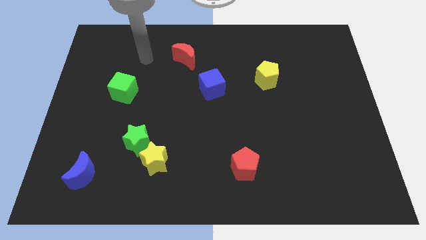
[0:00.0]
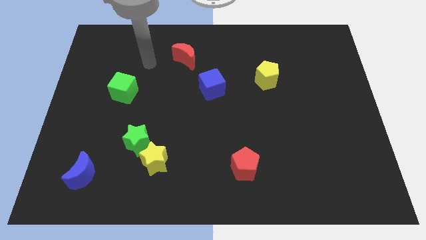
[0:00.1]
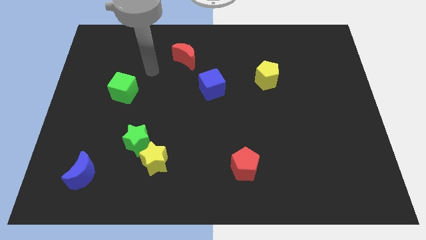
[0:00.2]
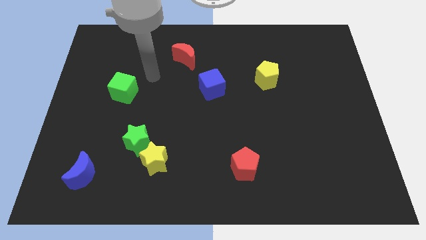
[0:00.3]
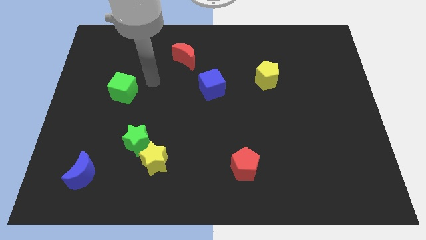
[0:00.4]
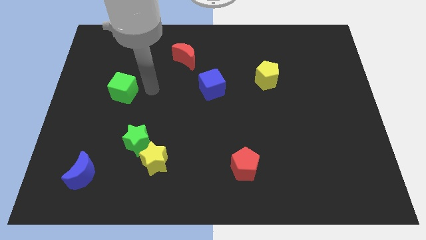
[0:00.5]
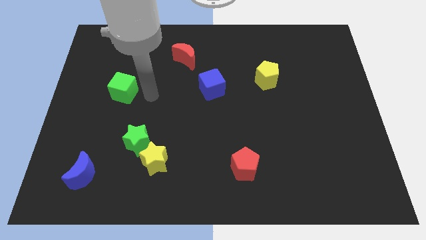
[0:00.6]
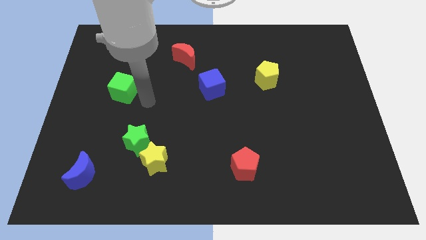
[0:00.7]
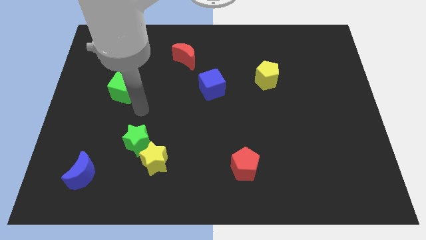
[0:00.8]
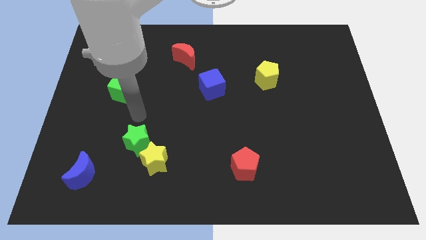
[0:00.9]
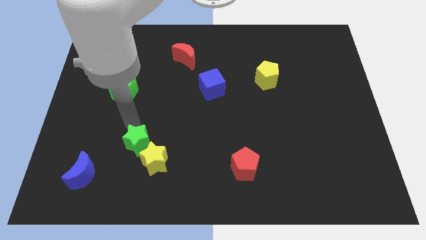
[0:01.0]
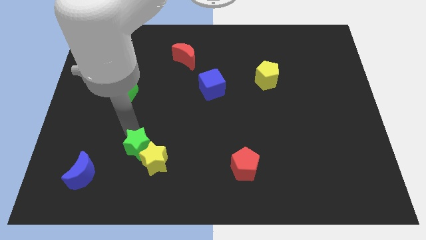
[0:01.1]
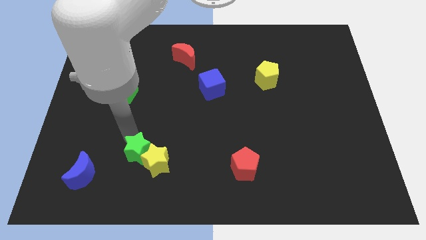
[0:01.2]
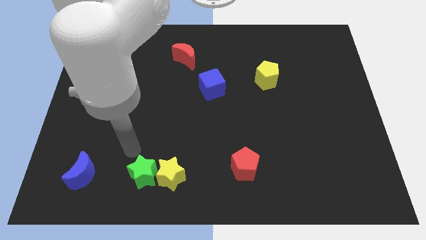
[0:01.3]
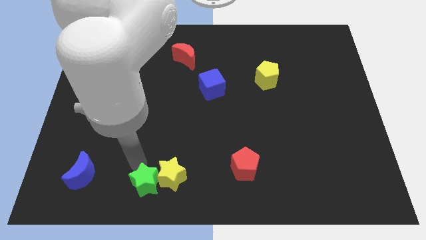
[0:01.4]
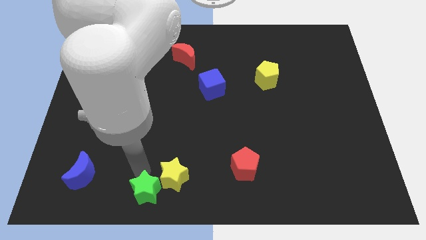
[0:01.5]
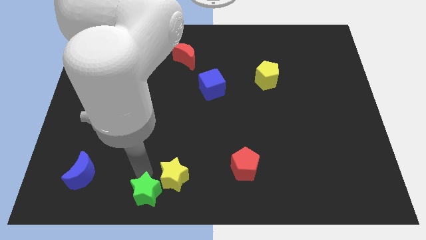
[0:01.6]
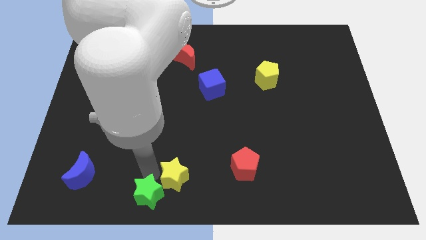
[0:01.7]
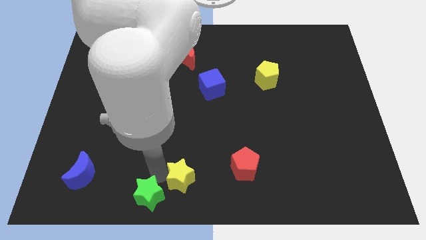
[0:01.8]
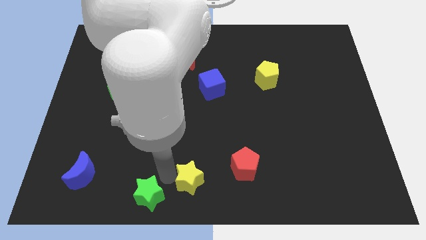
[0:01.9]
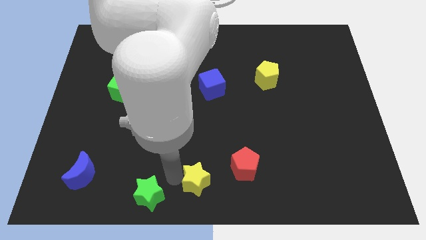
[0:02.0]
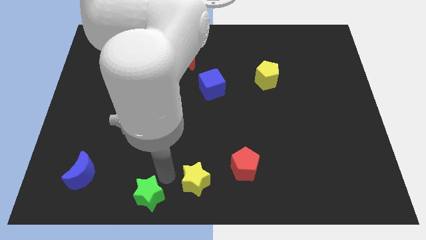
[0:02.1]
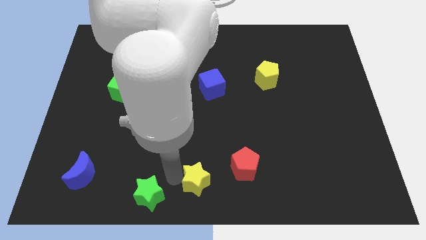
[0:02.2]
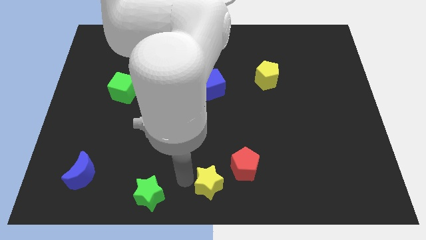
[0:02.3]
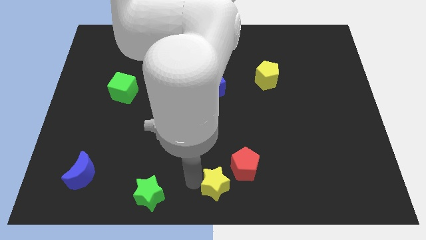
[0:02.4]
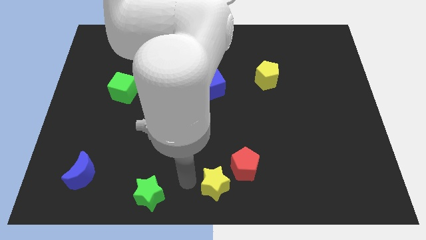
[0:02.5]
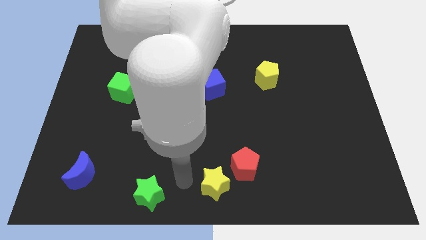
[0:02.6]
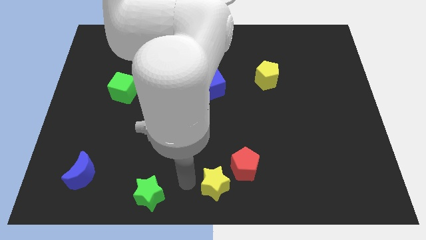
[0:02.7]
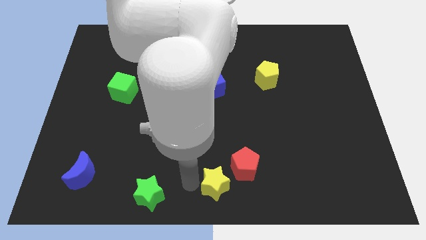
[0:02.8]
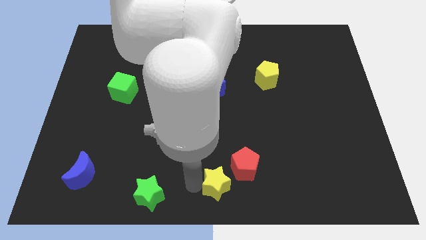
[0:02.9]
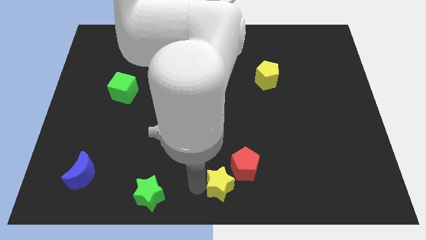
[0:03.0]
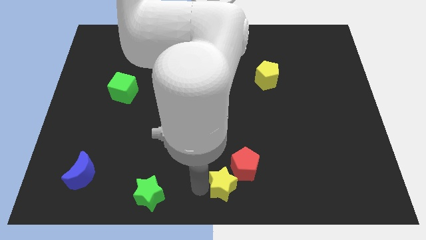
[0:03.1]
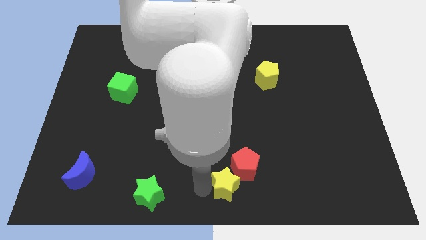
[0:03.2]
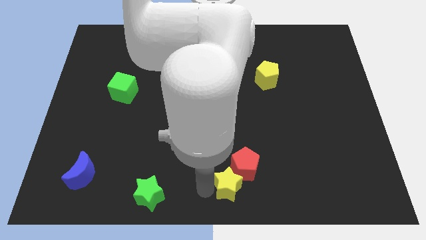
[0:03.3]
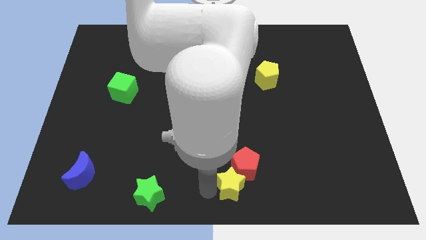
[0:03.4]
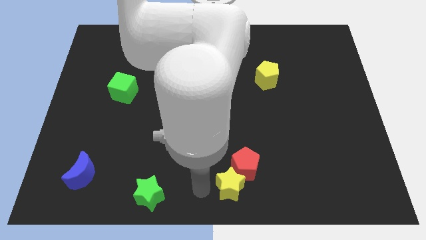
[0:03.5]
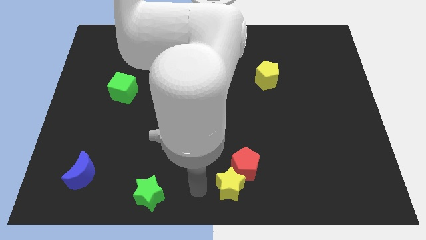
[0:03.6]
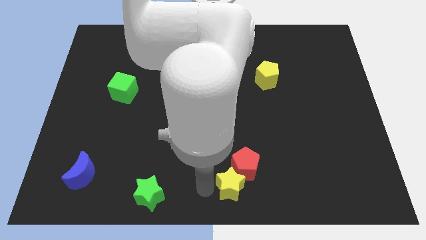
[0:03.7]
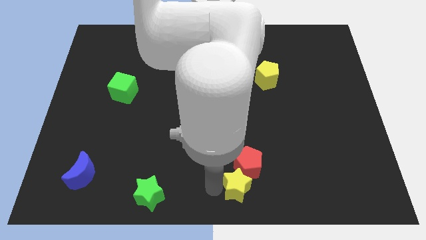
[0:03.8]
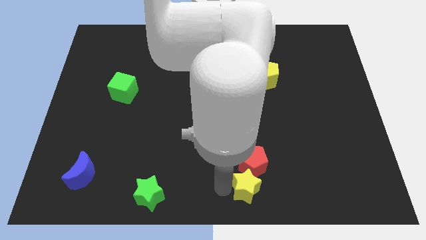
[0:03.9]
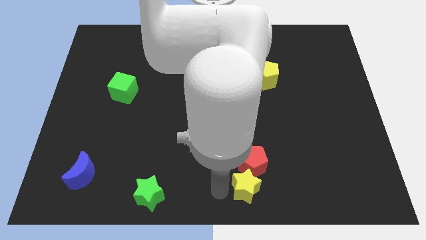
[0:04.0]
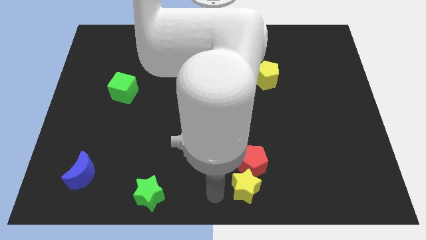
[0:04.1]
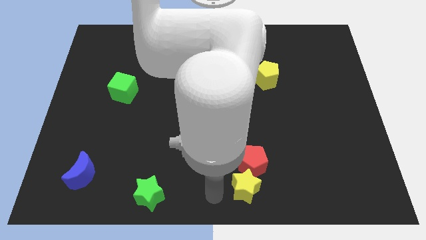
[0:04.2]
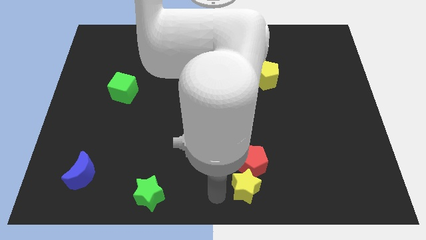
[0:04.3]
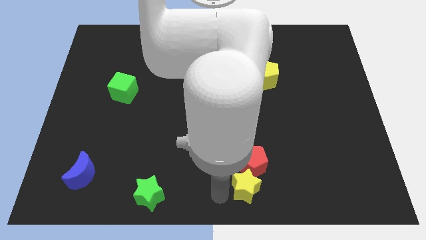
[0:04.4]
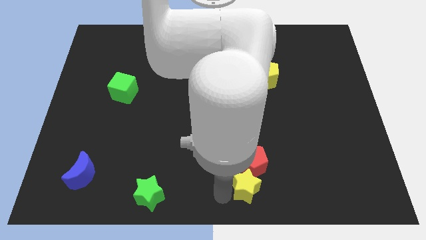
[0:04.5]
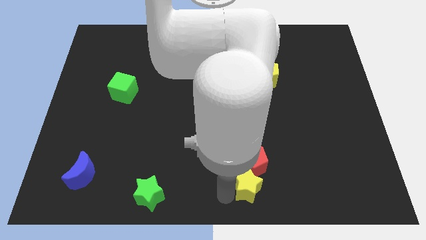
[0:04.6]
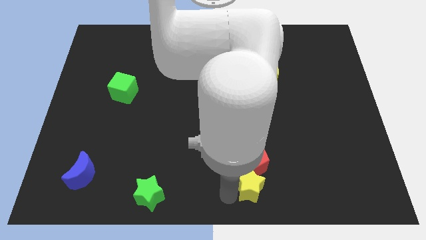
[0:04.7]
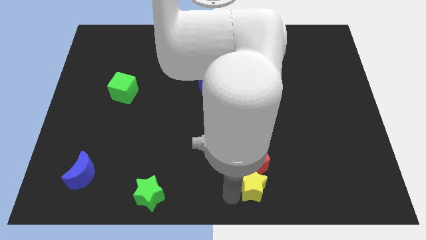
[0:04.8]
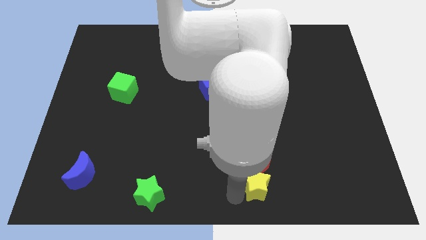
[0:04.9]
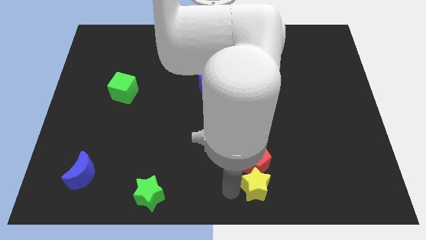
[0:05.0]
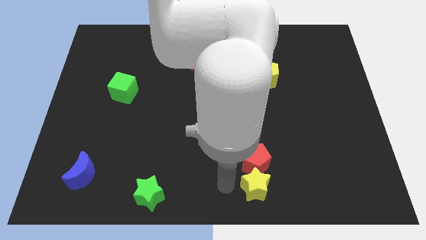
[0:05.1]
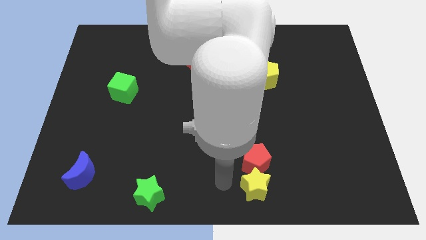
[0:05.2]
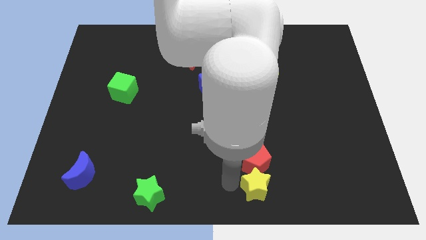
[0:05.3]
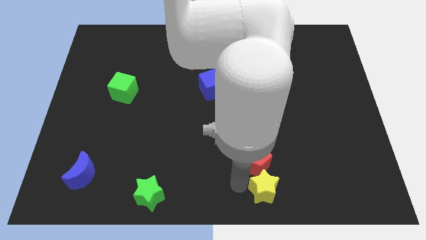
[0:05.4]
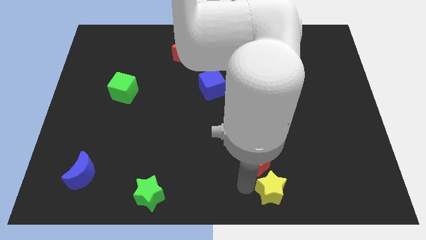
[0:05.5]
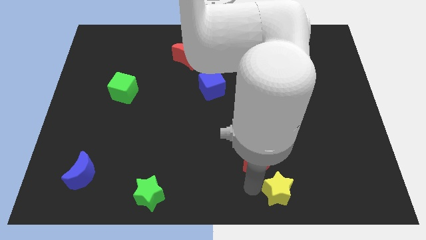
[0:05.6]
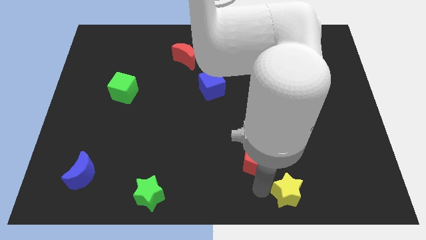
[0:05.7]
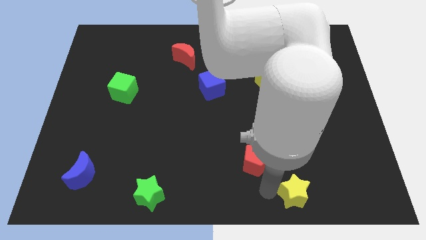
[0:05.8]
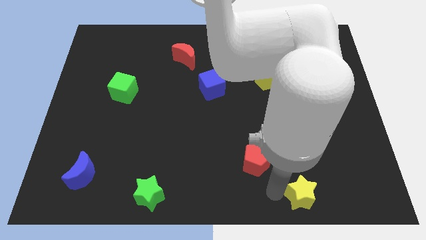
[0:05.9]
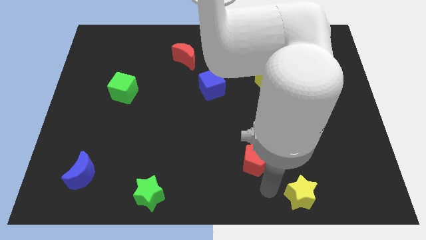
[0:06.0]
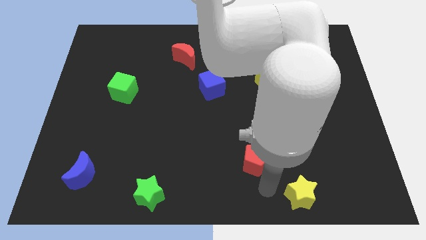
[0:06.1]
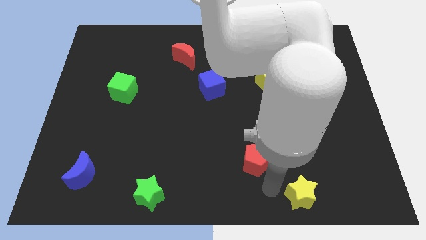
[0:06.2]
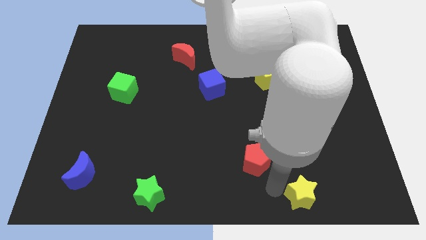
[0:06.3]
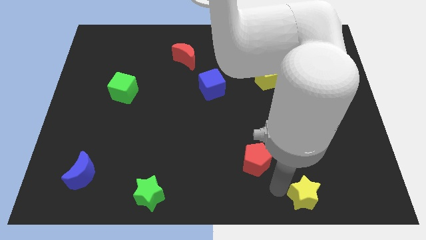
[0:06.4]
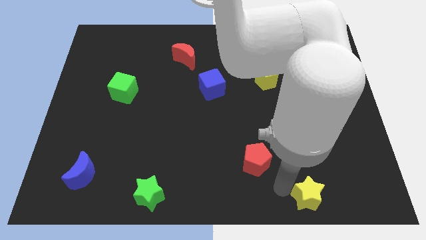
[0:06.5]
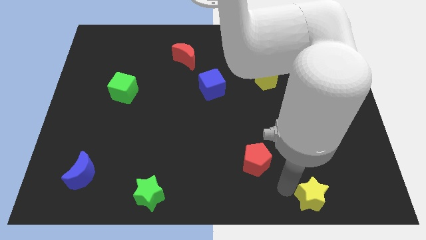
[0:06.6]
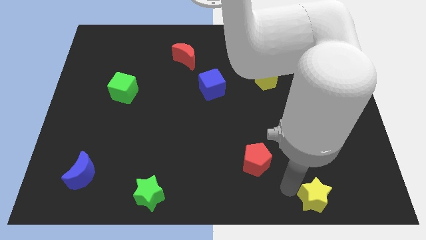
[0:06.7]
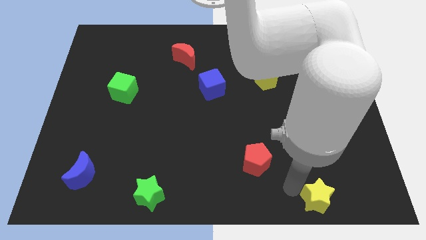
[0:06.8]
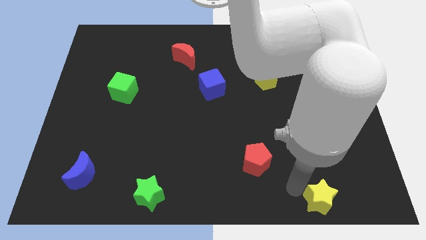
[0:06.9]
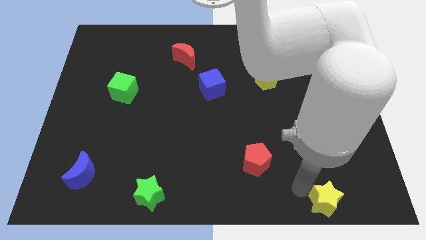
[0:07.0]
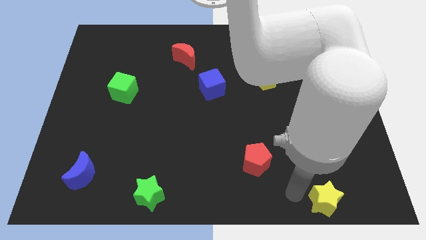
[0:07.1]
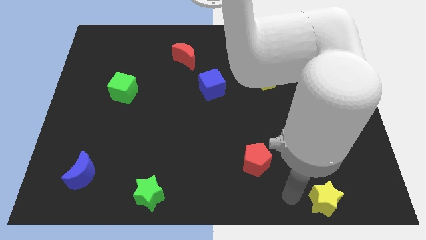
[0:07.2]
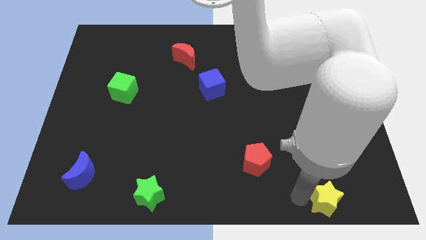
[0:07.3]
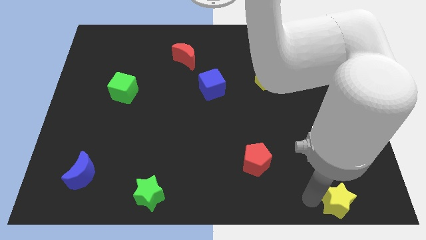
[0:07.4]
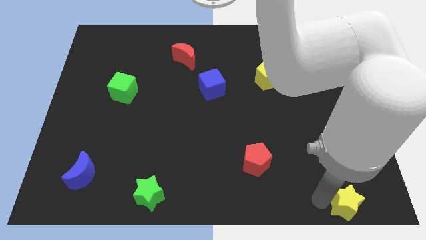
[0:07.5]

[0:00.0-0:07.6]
push the yellow star to the bottom right
